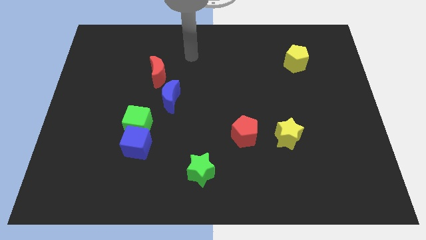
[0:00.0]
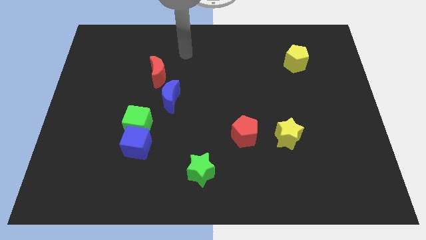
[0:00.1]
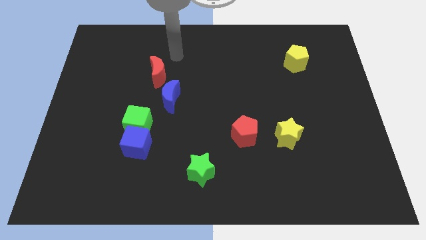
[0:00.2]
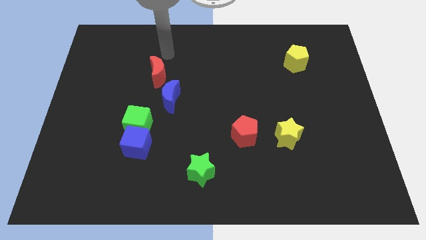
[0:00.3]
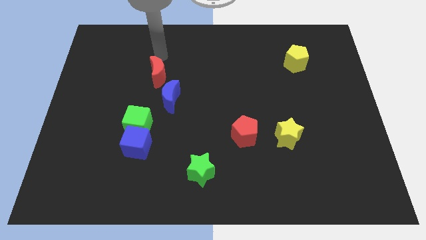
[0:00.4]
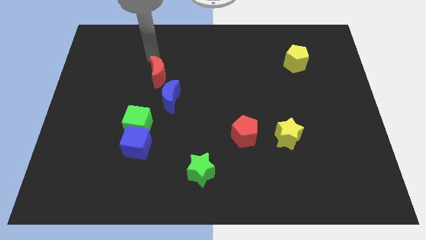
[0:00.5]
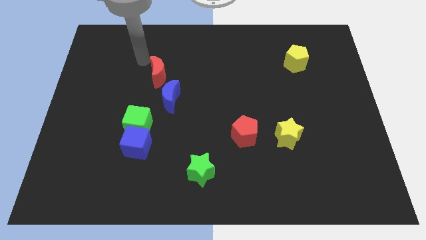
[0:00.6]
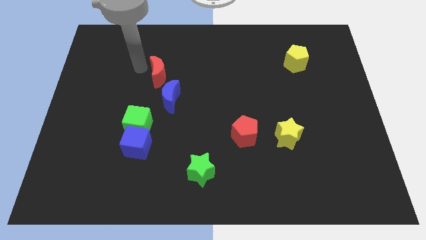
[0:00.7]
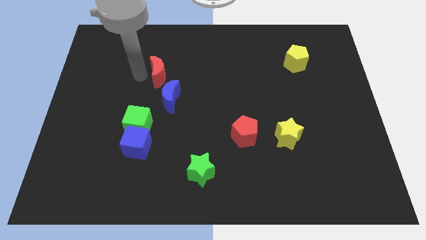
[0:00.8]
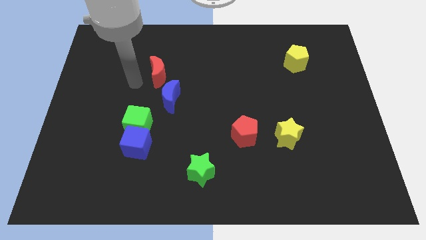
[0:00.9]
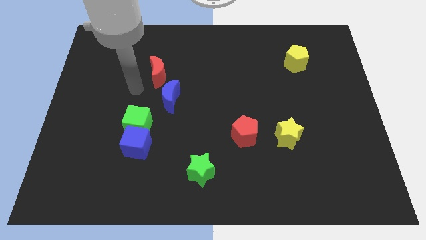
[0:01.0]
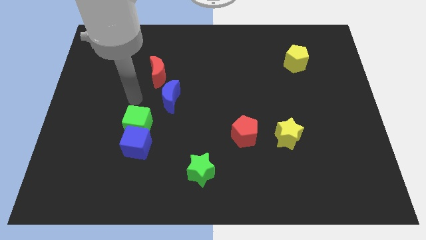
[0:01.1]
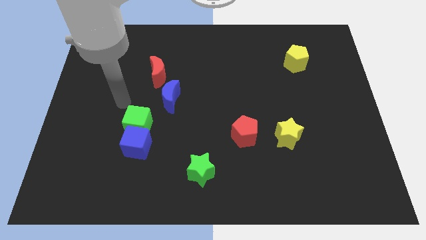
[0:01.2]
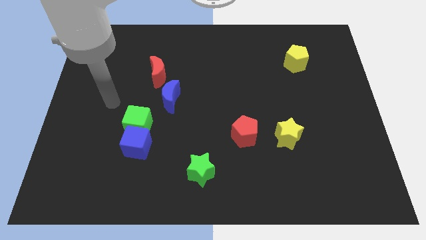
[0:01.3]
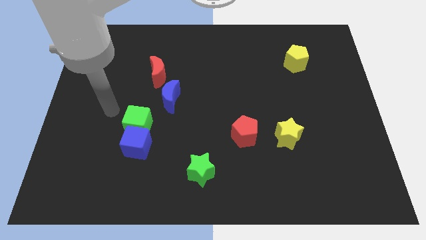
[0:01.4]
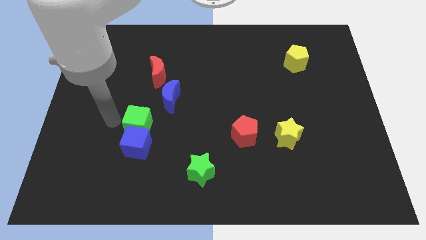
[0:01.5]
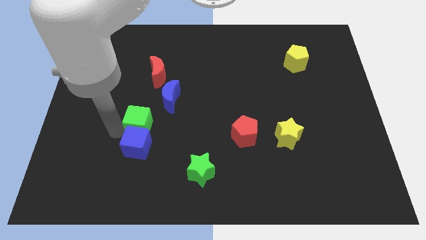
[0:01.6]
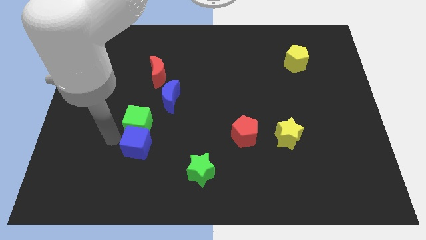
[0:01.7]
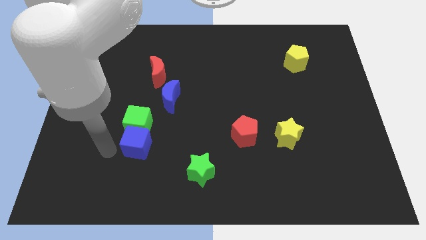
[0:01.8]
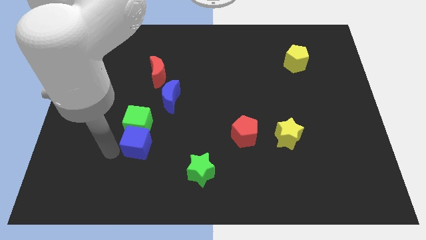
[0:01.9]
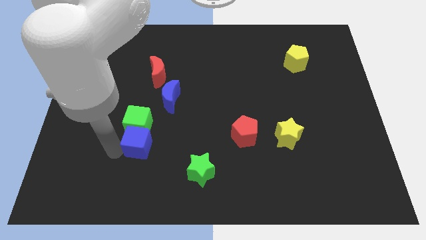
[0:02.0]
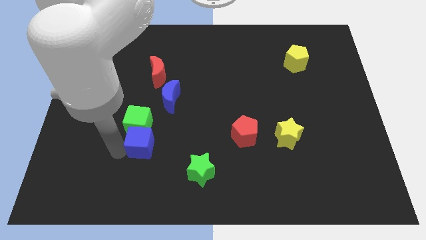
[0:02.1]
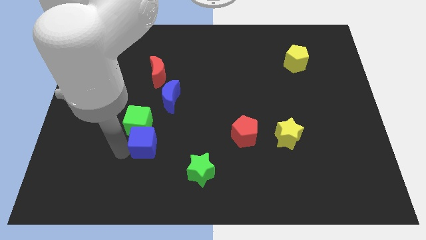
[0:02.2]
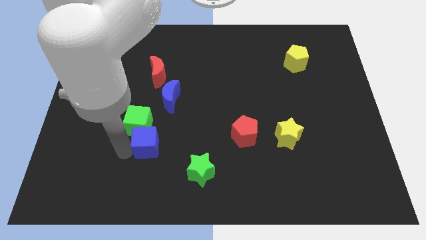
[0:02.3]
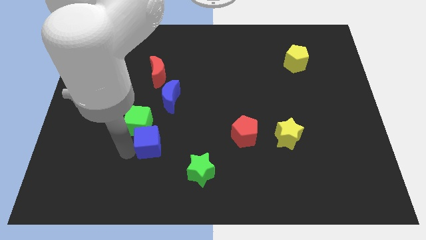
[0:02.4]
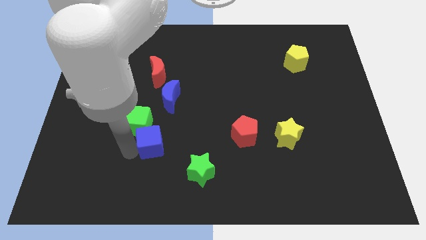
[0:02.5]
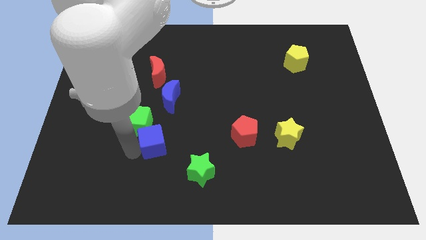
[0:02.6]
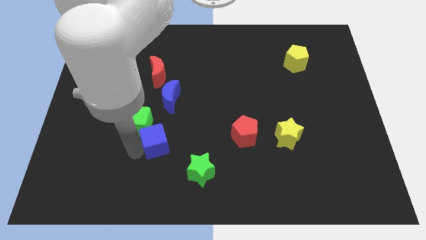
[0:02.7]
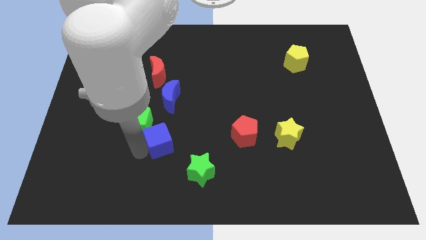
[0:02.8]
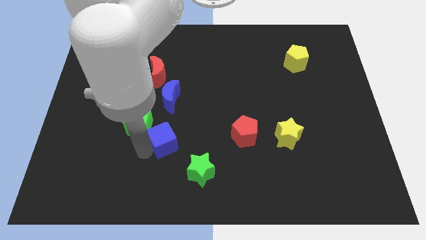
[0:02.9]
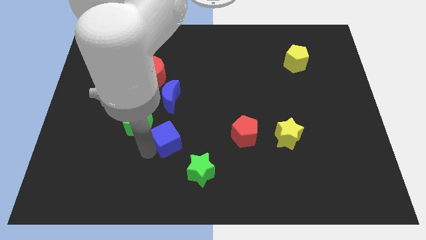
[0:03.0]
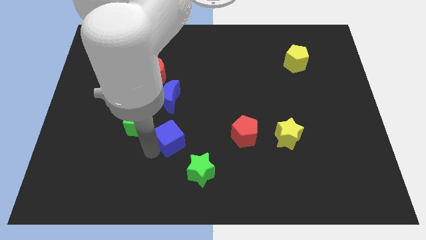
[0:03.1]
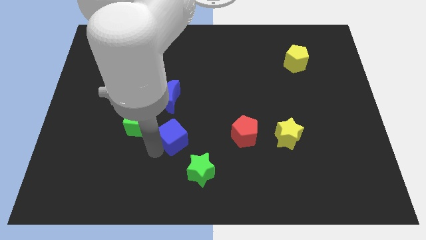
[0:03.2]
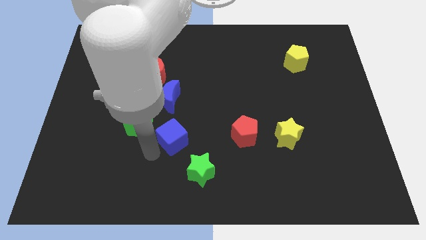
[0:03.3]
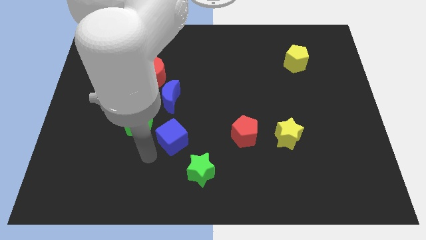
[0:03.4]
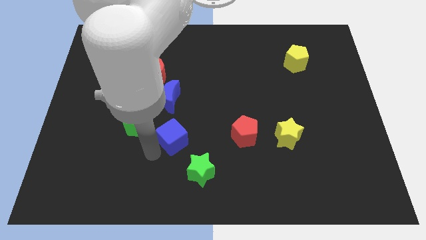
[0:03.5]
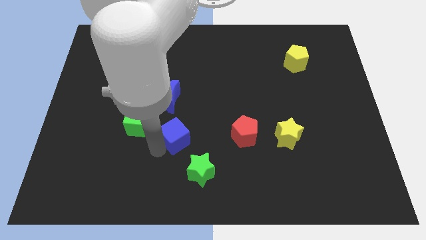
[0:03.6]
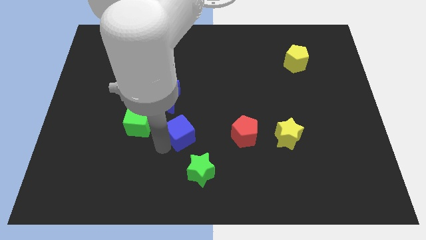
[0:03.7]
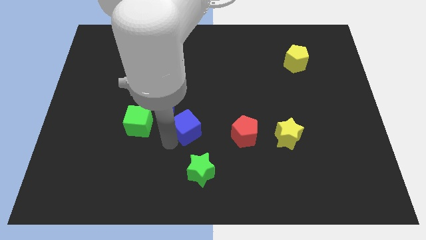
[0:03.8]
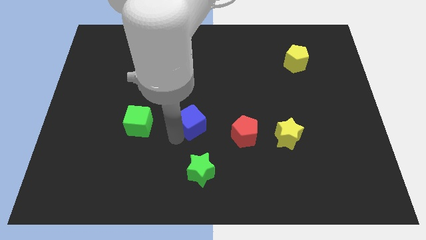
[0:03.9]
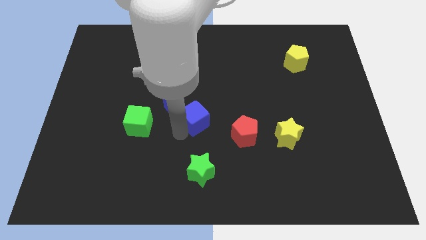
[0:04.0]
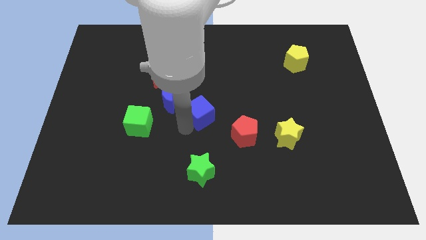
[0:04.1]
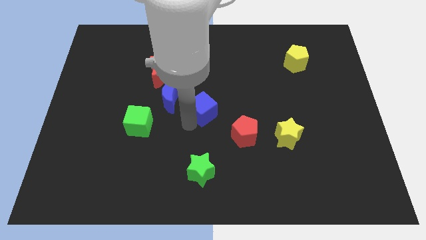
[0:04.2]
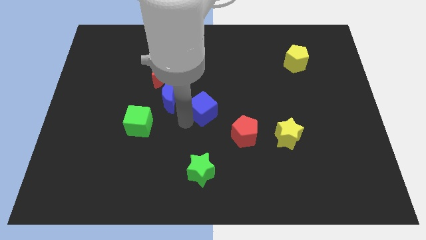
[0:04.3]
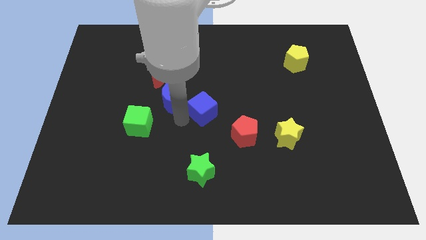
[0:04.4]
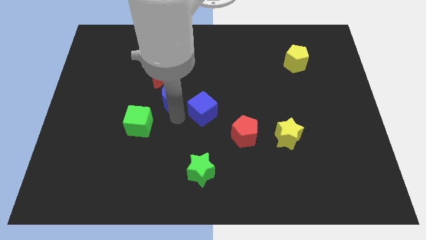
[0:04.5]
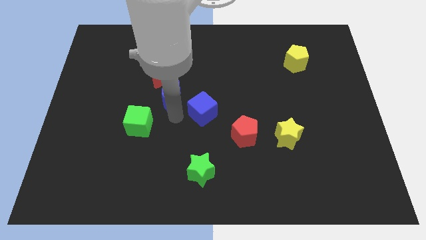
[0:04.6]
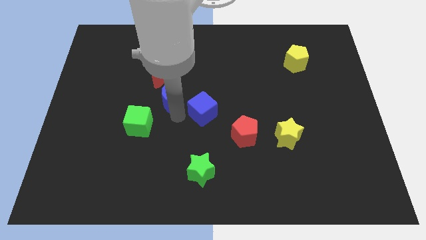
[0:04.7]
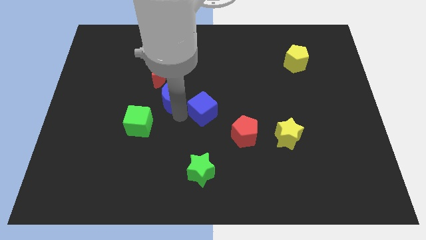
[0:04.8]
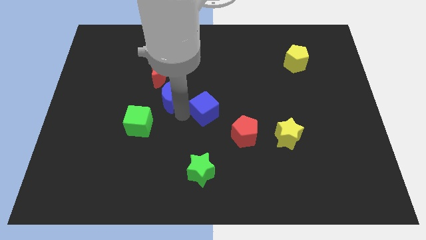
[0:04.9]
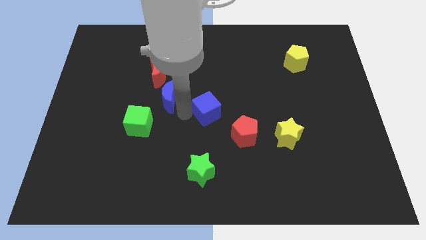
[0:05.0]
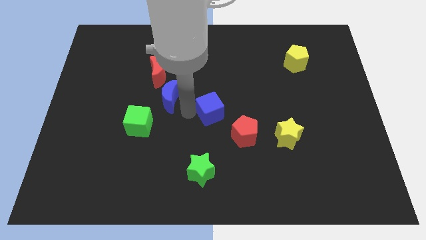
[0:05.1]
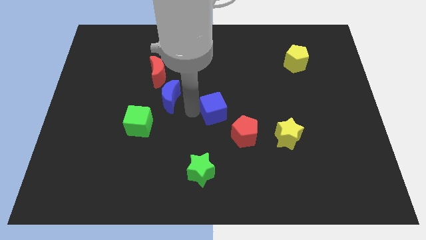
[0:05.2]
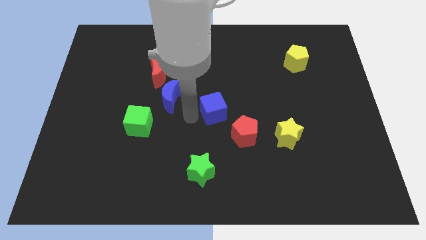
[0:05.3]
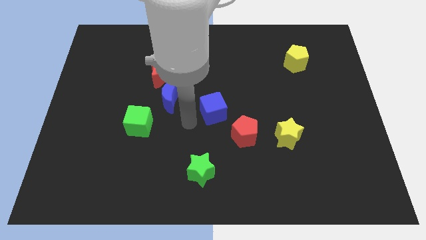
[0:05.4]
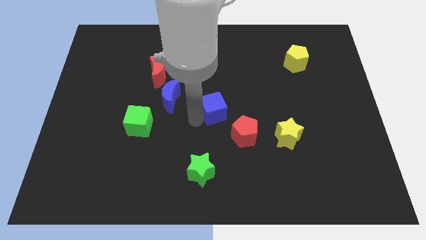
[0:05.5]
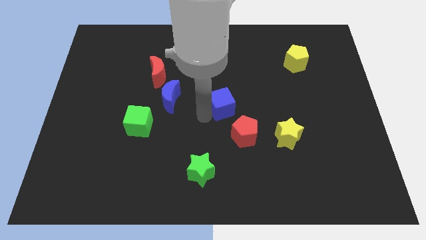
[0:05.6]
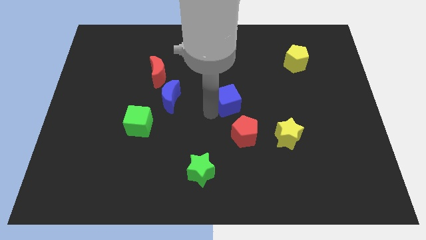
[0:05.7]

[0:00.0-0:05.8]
put the blue cube to the top side of the red pentagon
